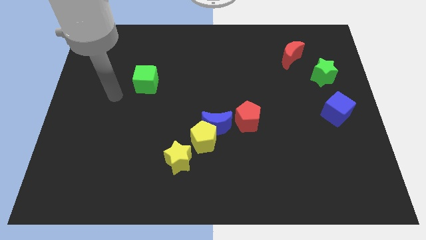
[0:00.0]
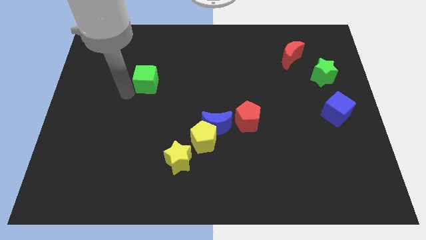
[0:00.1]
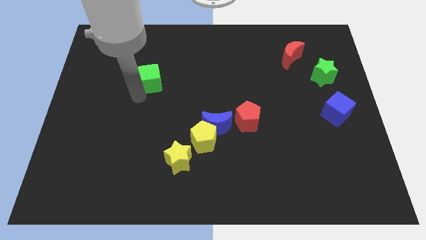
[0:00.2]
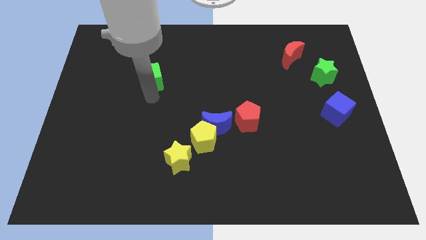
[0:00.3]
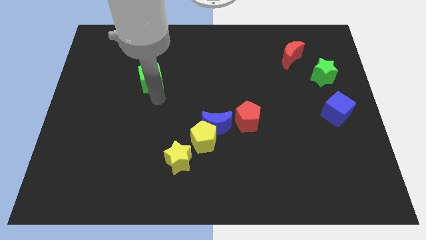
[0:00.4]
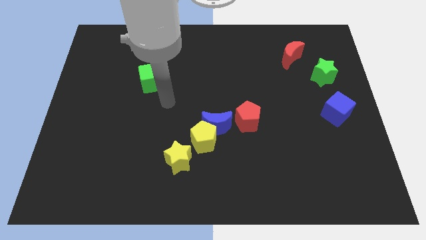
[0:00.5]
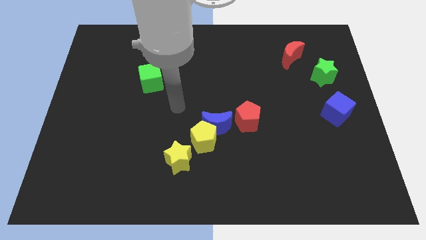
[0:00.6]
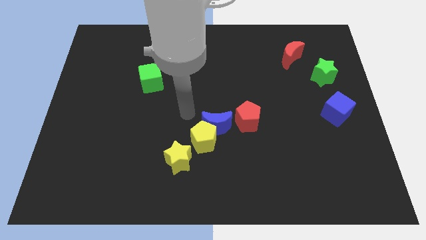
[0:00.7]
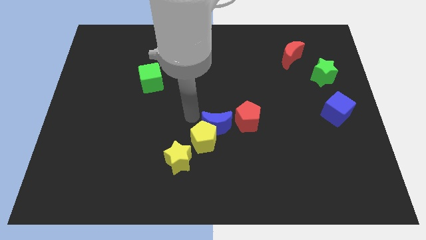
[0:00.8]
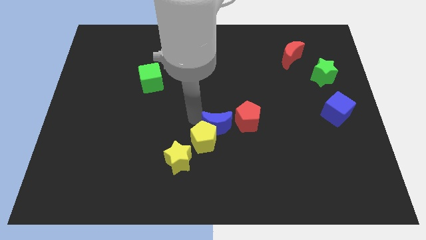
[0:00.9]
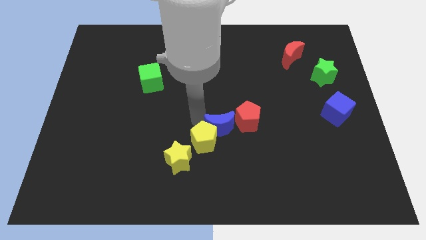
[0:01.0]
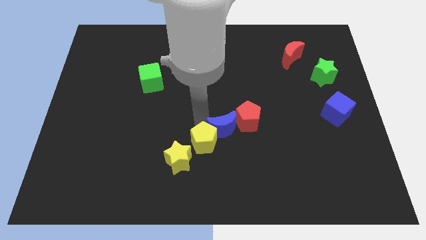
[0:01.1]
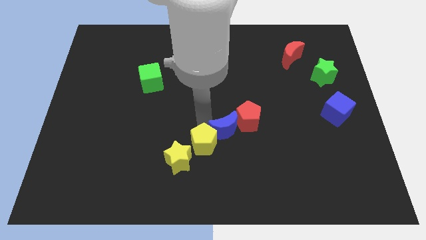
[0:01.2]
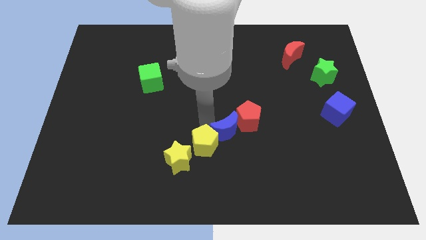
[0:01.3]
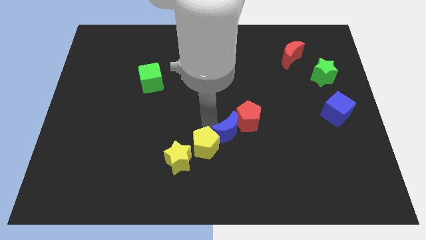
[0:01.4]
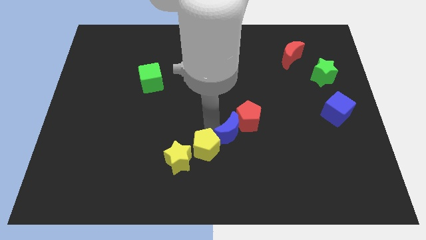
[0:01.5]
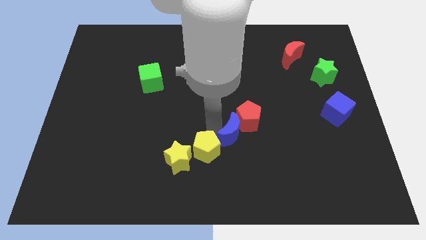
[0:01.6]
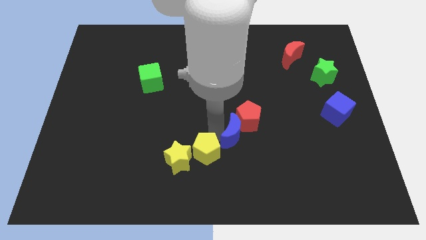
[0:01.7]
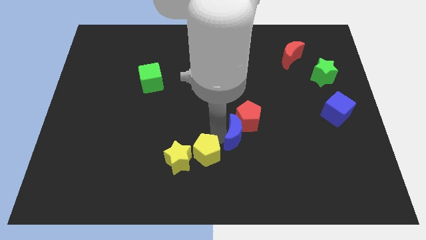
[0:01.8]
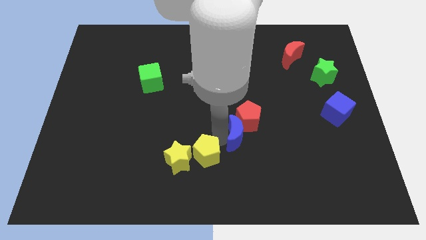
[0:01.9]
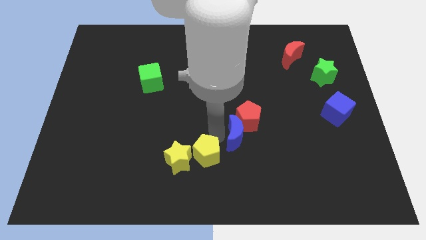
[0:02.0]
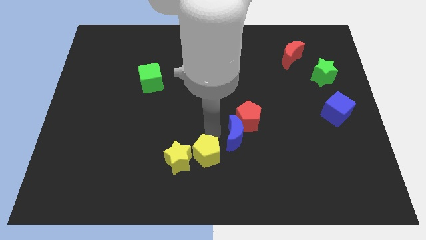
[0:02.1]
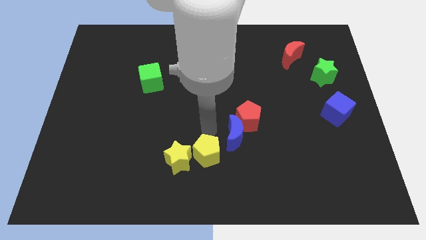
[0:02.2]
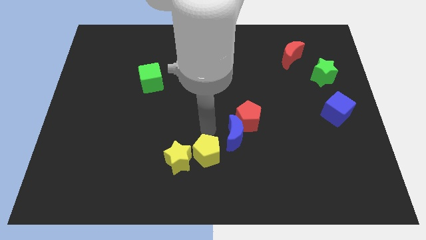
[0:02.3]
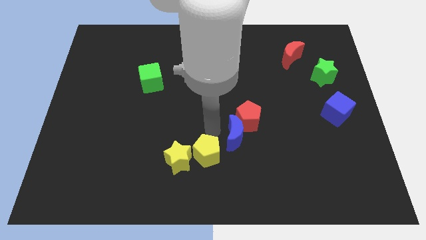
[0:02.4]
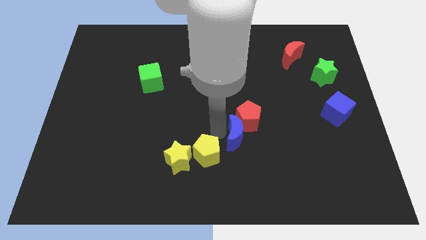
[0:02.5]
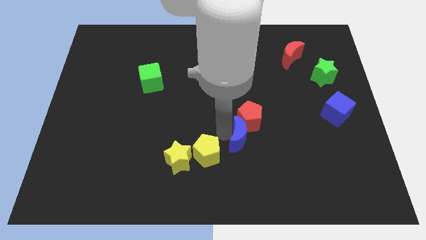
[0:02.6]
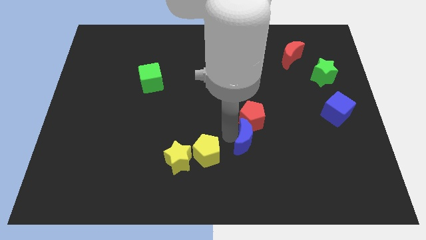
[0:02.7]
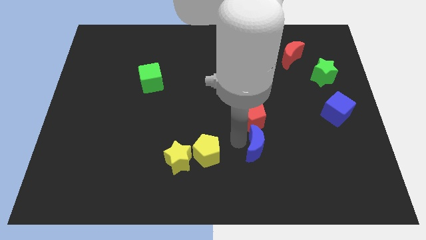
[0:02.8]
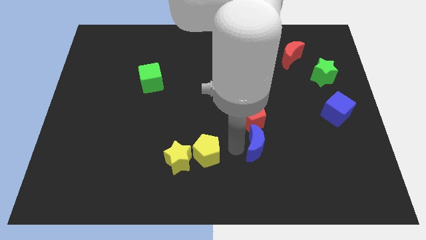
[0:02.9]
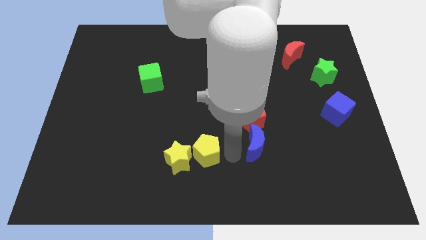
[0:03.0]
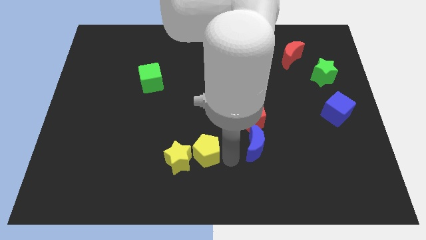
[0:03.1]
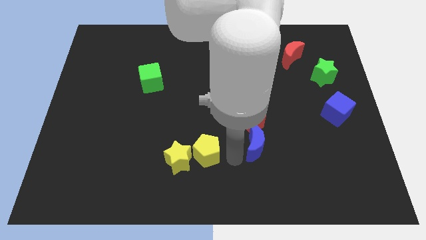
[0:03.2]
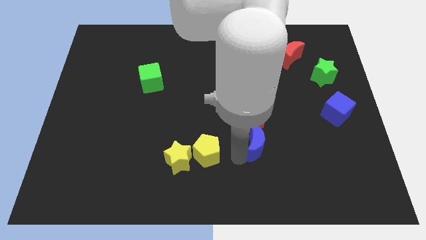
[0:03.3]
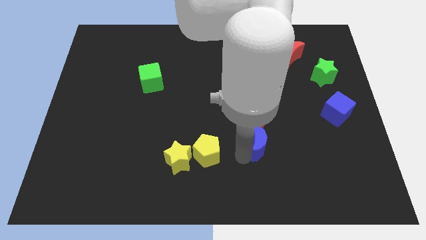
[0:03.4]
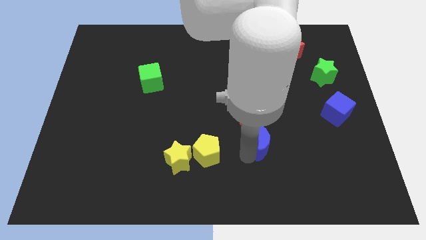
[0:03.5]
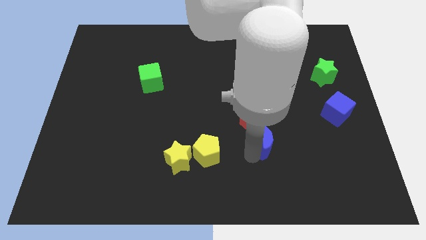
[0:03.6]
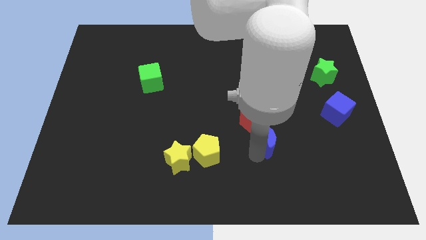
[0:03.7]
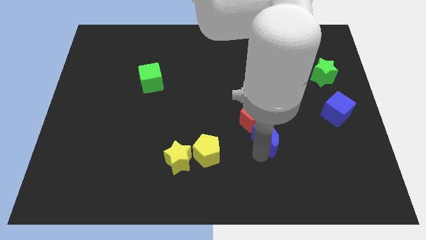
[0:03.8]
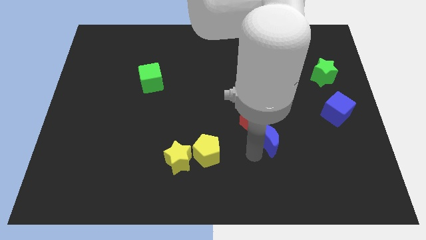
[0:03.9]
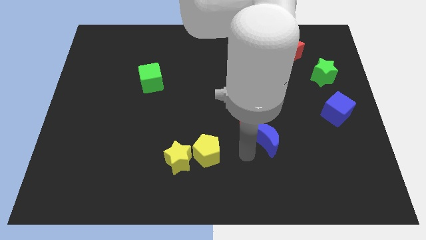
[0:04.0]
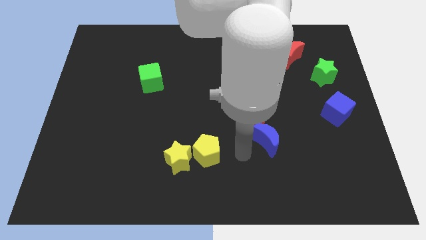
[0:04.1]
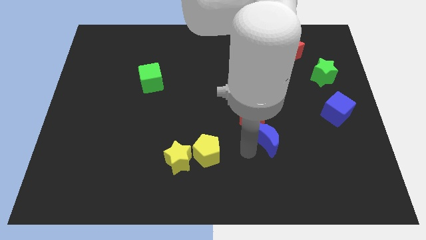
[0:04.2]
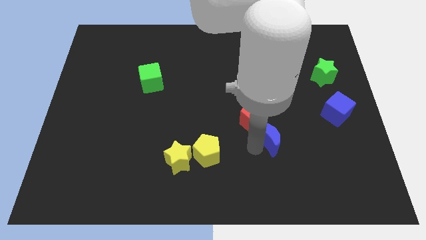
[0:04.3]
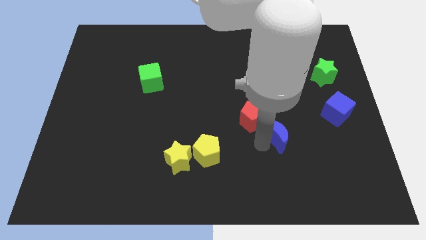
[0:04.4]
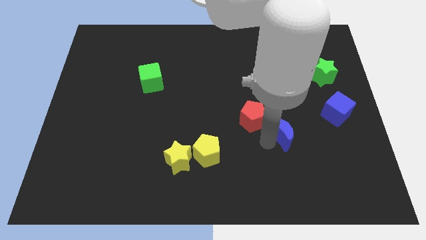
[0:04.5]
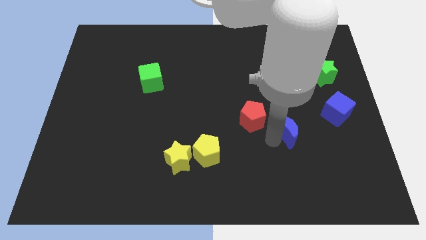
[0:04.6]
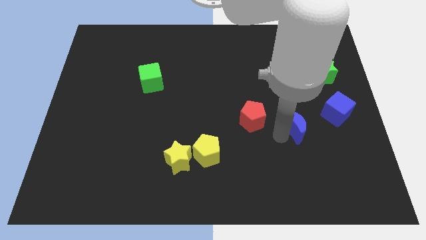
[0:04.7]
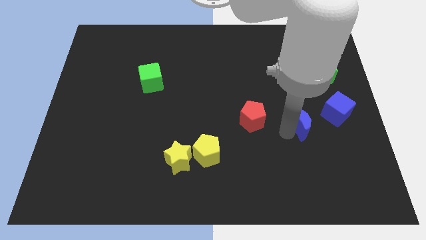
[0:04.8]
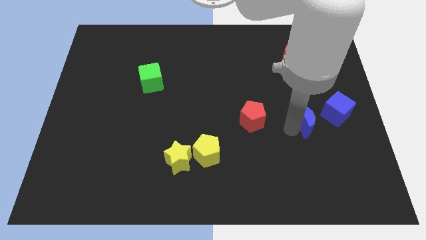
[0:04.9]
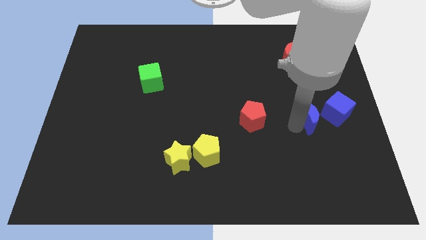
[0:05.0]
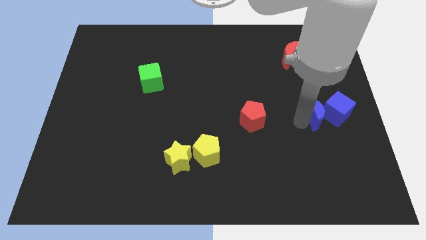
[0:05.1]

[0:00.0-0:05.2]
push the blue moon next to the blue cube

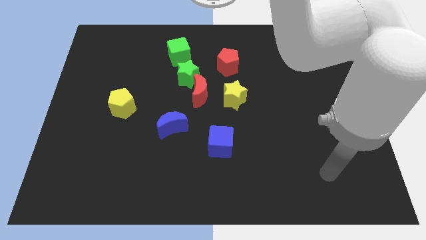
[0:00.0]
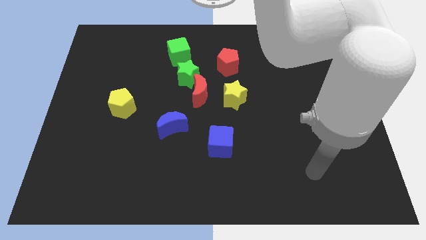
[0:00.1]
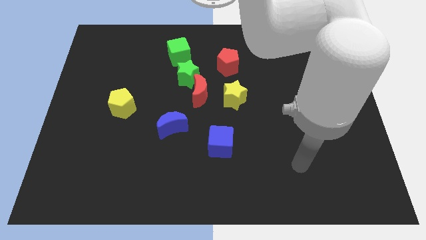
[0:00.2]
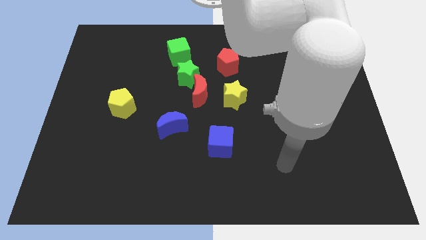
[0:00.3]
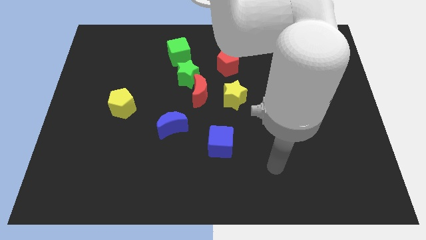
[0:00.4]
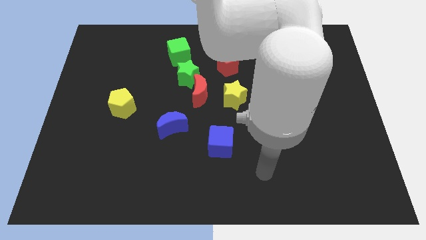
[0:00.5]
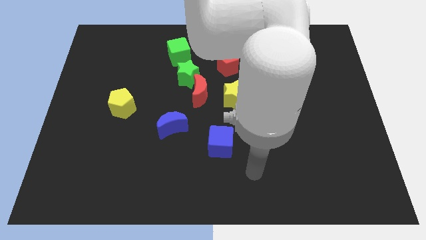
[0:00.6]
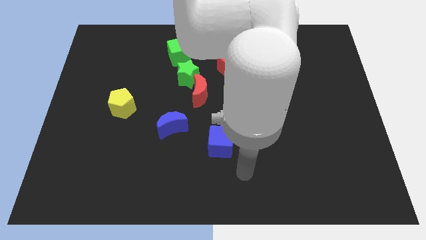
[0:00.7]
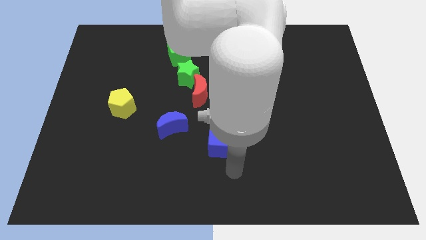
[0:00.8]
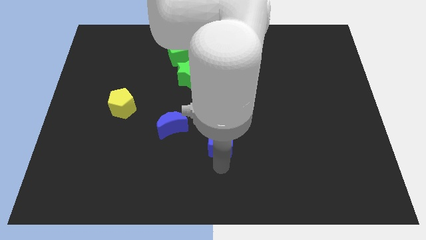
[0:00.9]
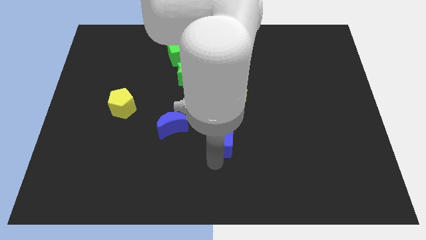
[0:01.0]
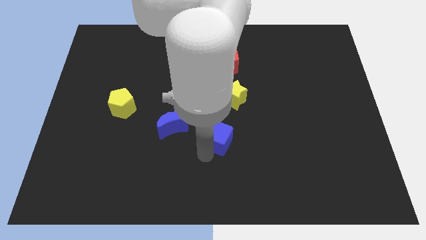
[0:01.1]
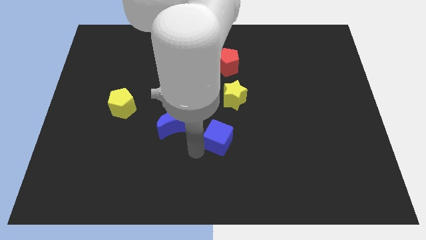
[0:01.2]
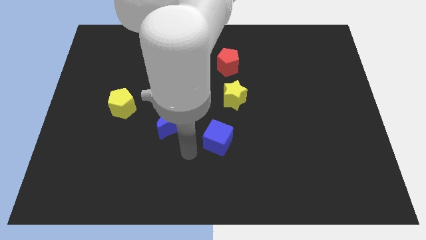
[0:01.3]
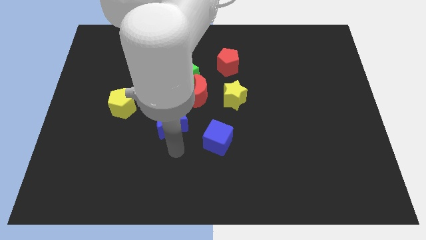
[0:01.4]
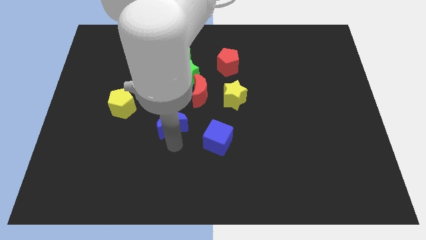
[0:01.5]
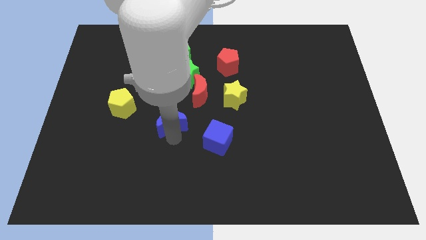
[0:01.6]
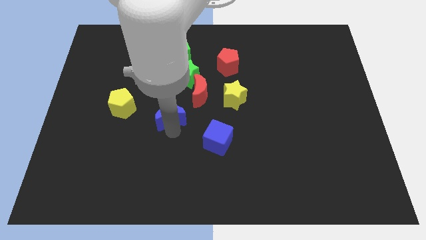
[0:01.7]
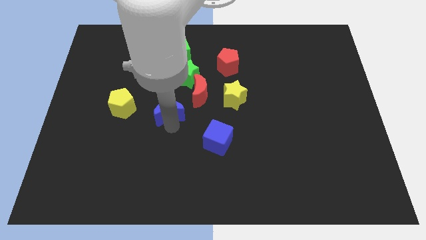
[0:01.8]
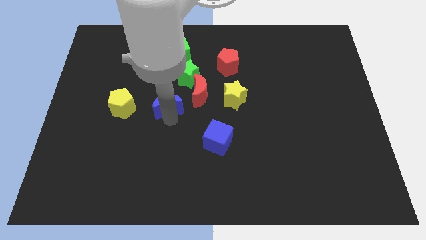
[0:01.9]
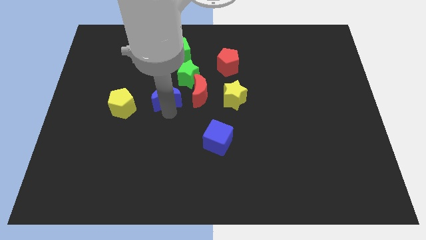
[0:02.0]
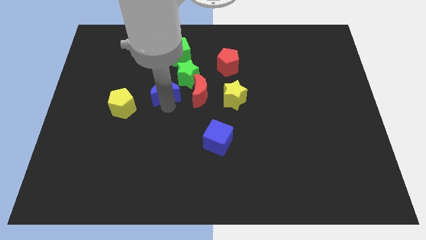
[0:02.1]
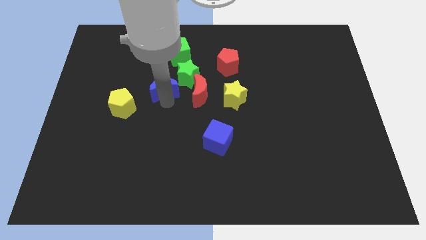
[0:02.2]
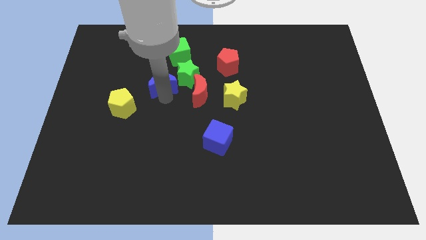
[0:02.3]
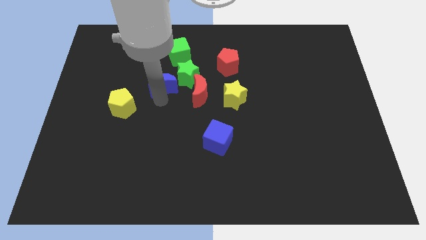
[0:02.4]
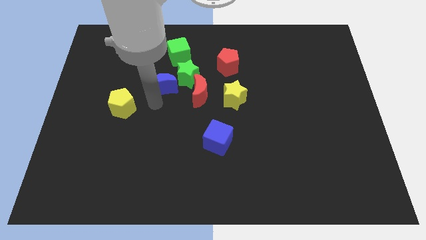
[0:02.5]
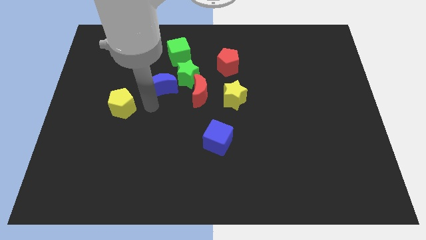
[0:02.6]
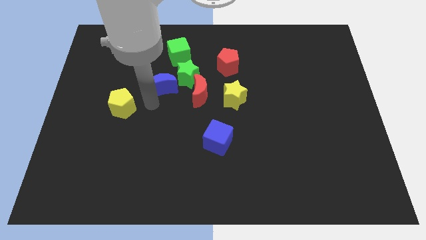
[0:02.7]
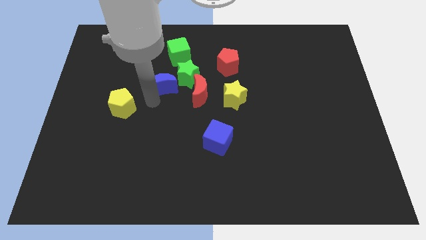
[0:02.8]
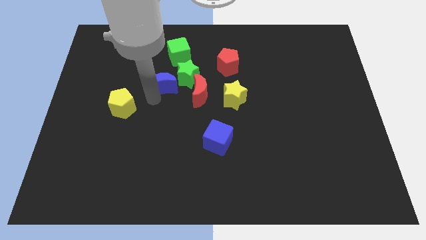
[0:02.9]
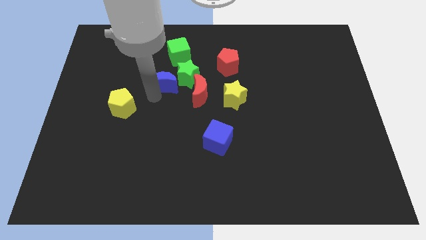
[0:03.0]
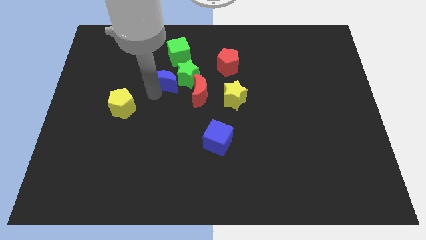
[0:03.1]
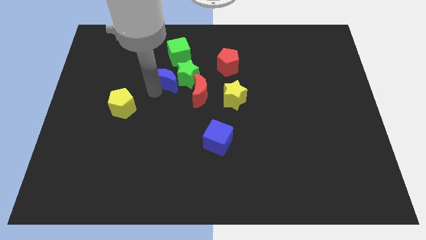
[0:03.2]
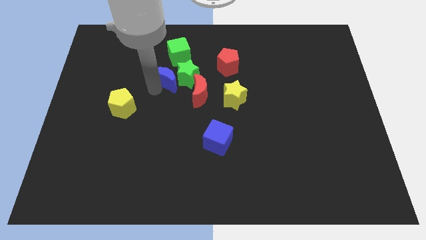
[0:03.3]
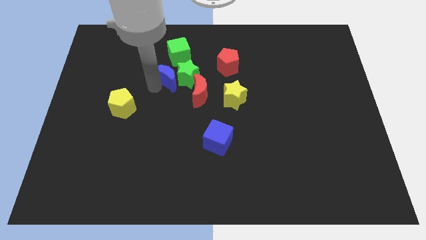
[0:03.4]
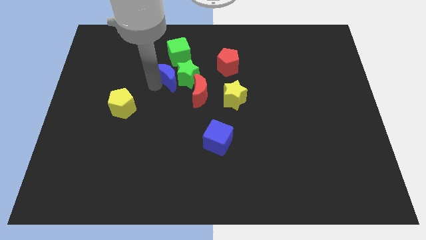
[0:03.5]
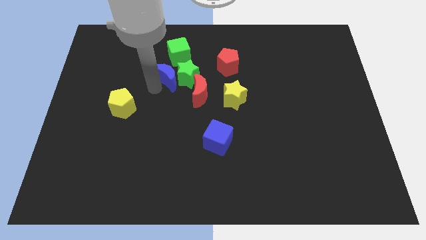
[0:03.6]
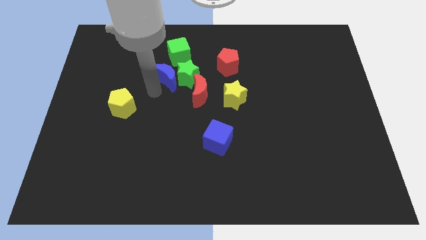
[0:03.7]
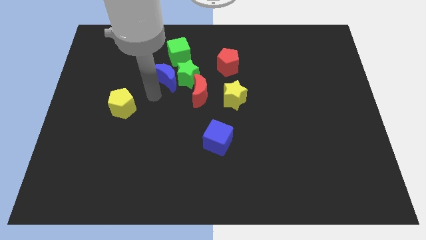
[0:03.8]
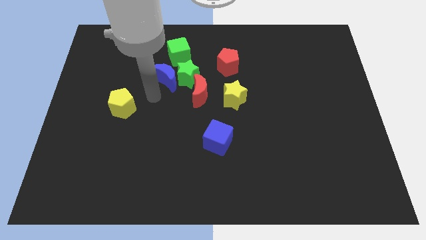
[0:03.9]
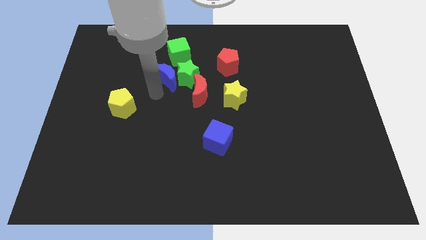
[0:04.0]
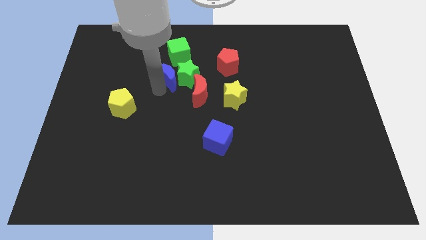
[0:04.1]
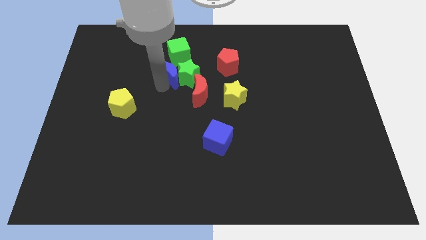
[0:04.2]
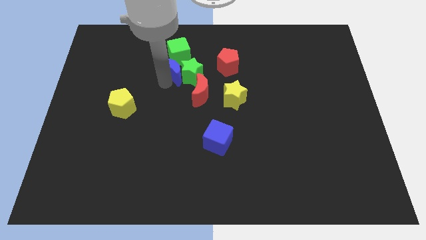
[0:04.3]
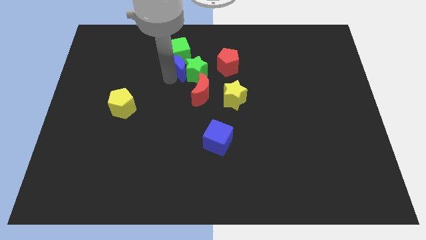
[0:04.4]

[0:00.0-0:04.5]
slide the blue moon close to the green cube
